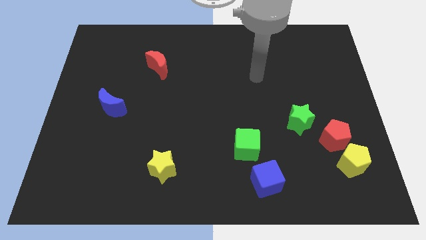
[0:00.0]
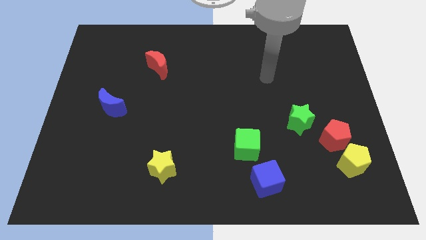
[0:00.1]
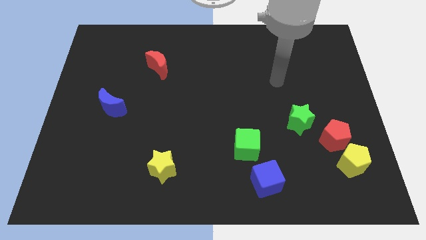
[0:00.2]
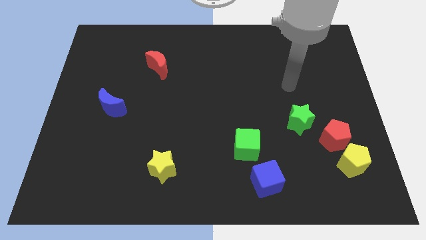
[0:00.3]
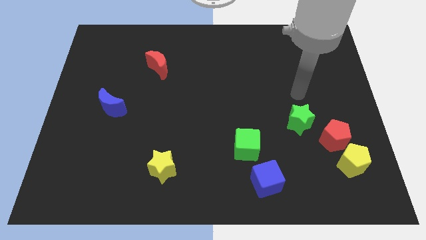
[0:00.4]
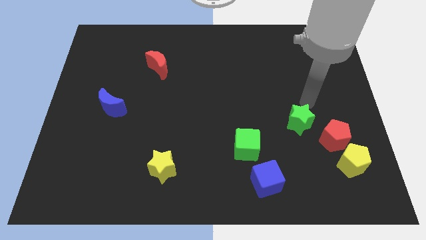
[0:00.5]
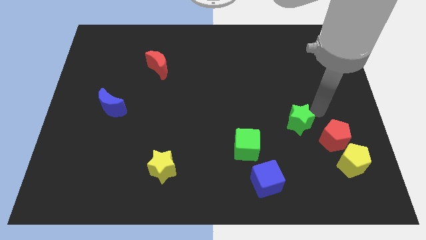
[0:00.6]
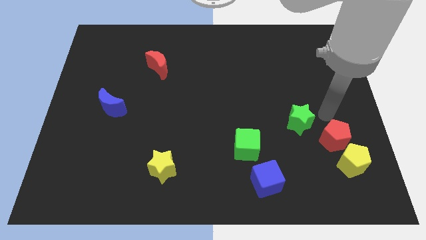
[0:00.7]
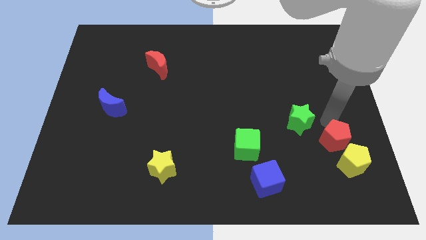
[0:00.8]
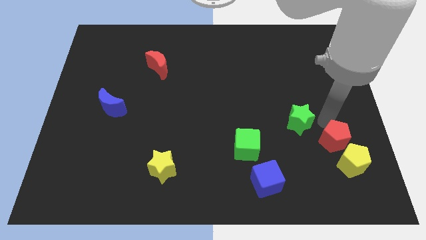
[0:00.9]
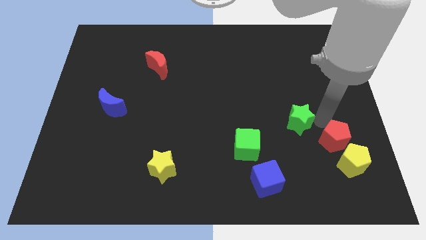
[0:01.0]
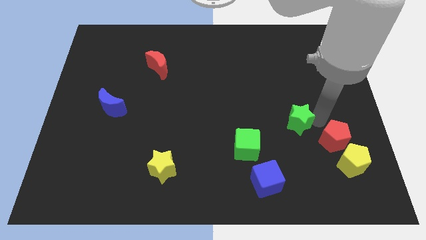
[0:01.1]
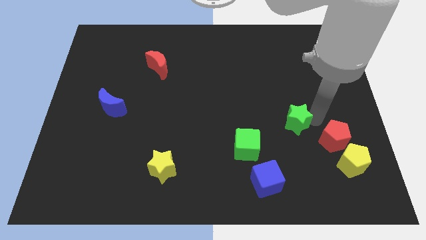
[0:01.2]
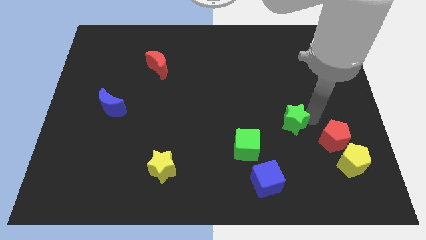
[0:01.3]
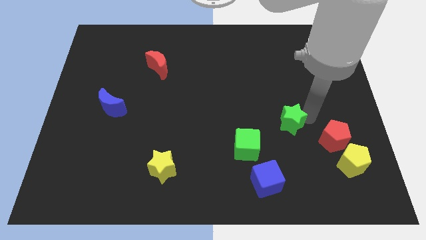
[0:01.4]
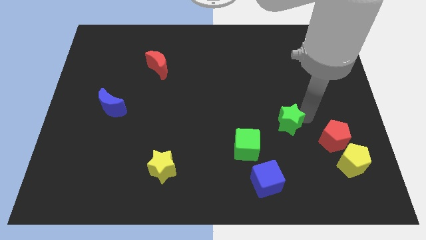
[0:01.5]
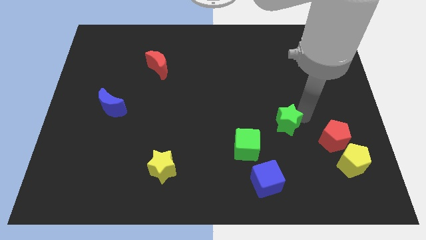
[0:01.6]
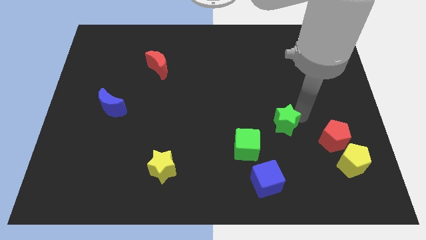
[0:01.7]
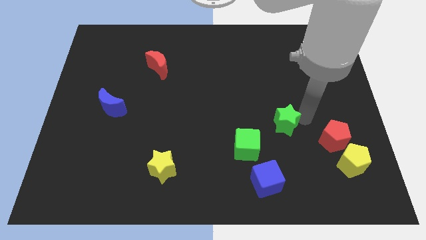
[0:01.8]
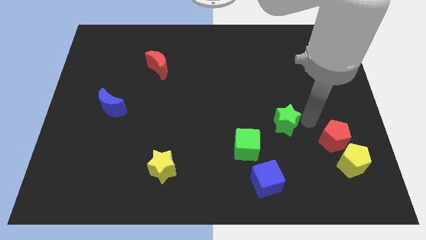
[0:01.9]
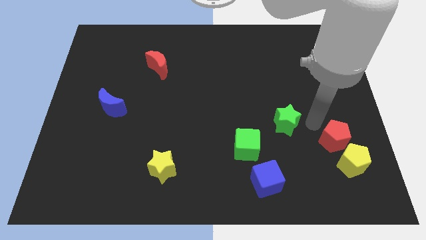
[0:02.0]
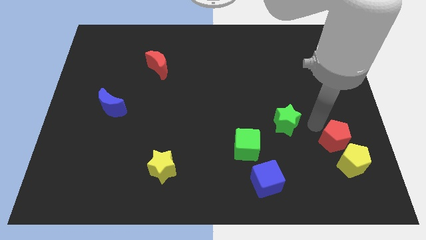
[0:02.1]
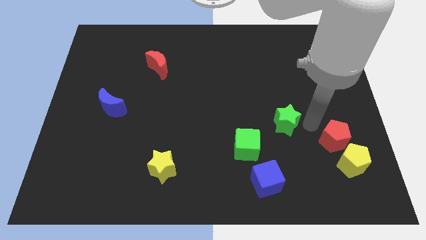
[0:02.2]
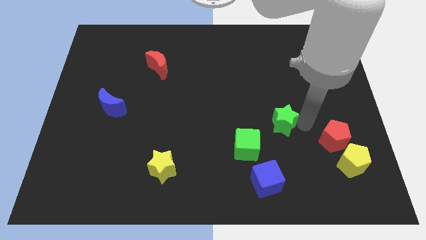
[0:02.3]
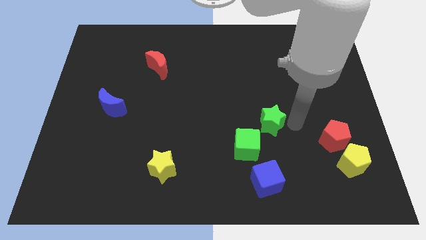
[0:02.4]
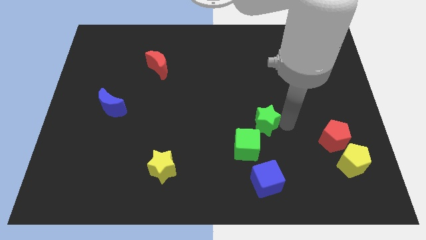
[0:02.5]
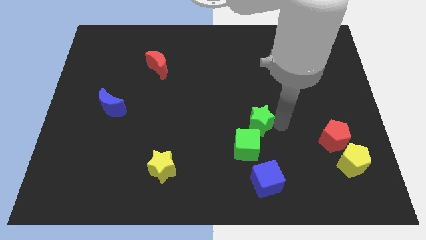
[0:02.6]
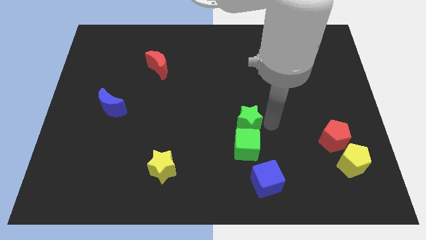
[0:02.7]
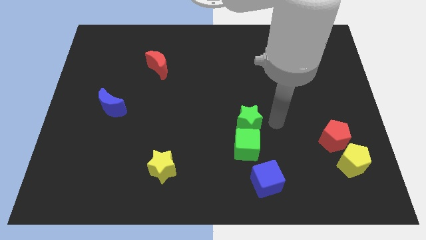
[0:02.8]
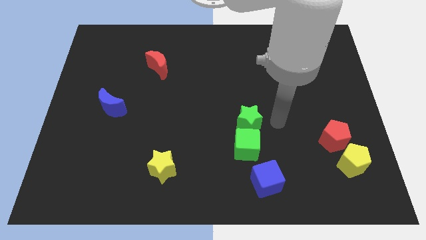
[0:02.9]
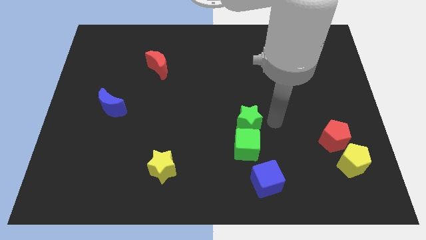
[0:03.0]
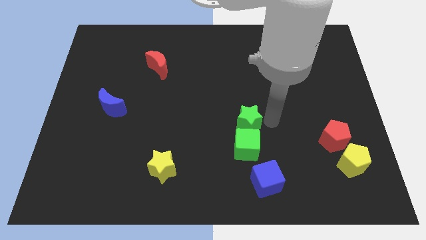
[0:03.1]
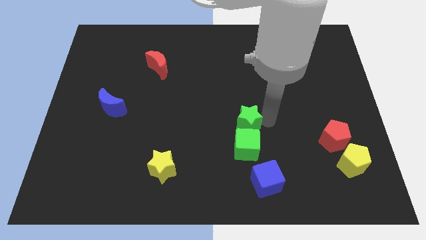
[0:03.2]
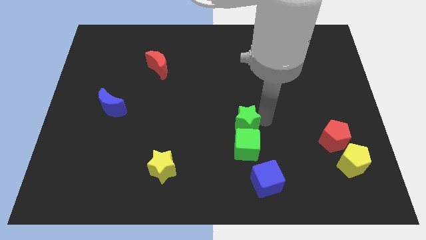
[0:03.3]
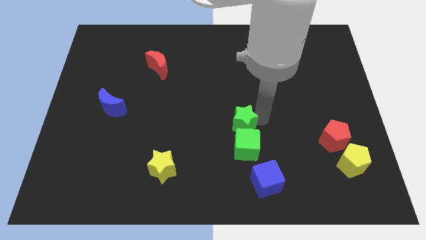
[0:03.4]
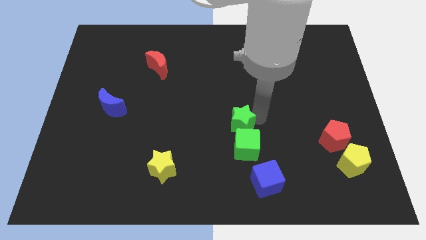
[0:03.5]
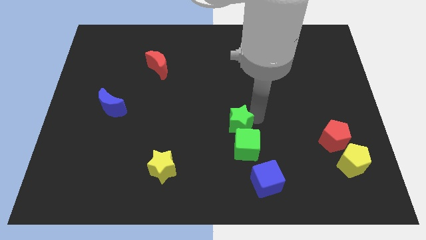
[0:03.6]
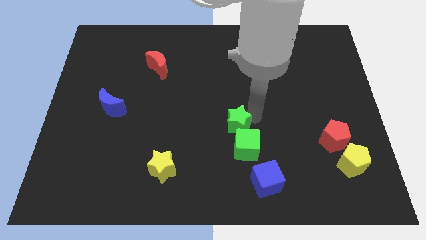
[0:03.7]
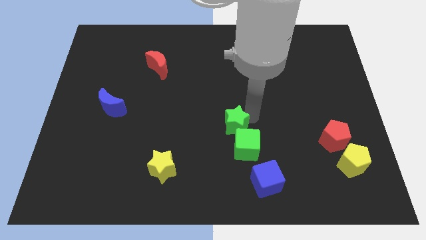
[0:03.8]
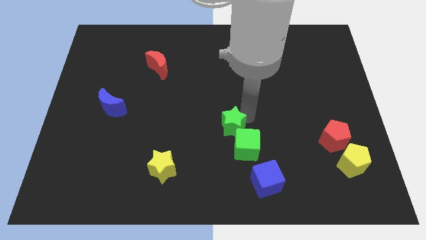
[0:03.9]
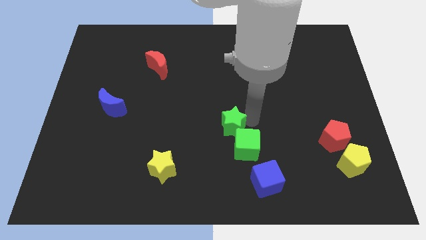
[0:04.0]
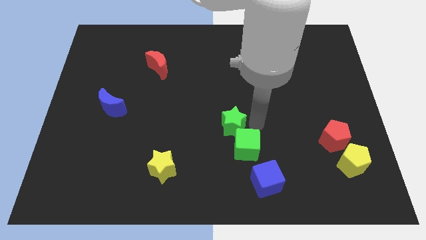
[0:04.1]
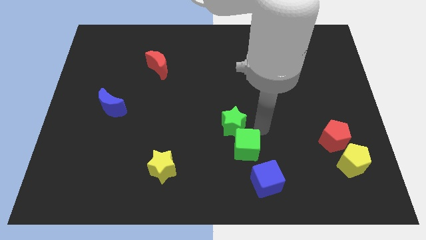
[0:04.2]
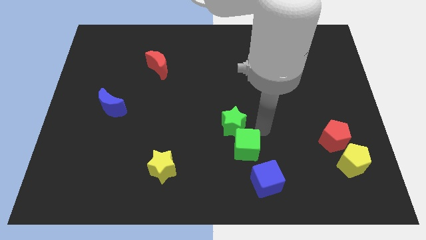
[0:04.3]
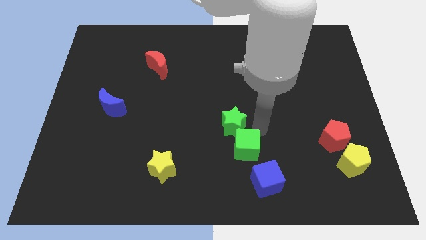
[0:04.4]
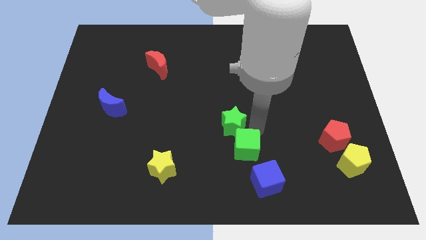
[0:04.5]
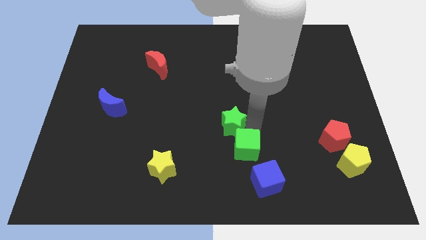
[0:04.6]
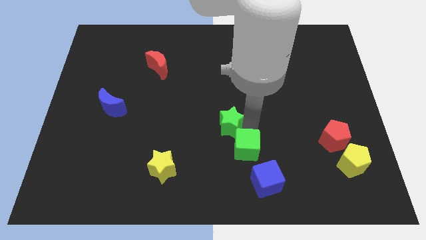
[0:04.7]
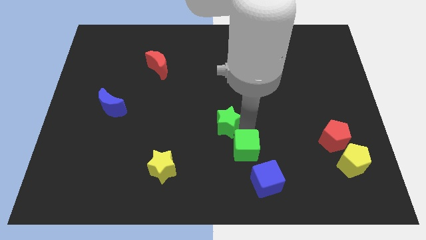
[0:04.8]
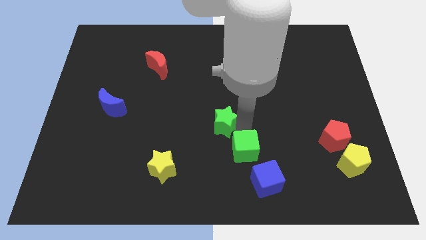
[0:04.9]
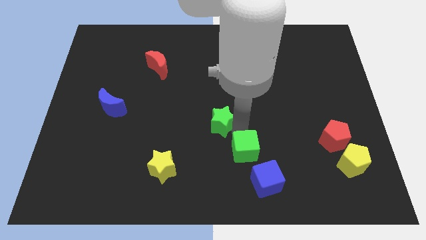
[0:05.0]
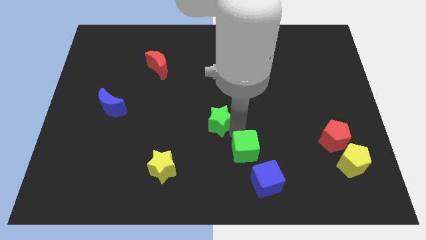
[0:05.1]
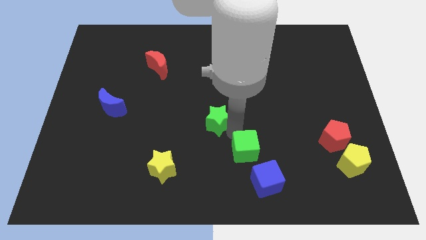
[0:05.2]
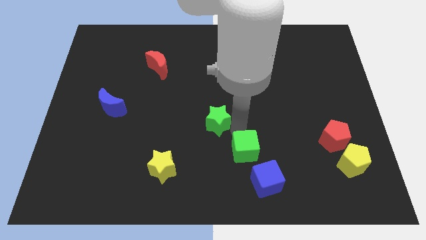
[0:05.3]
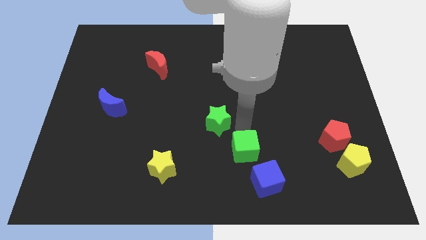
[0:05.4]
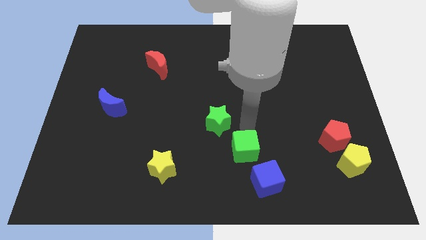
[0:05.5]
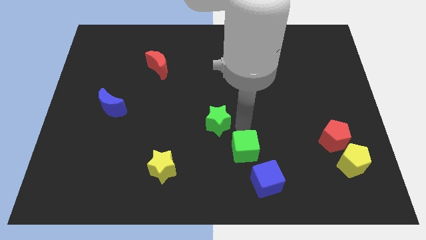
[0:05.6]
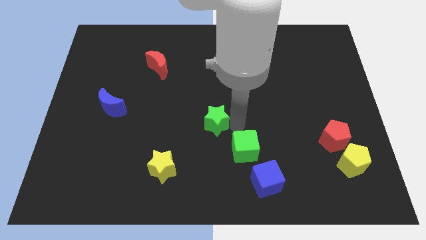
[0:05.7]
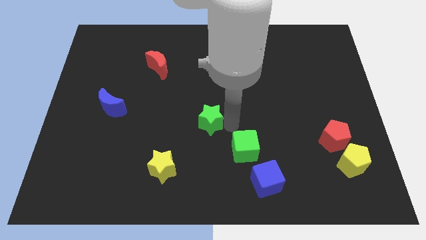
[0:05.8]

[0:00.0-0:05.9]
move the green star left

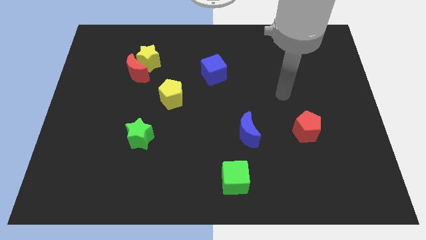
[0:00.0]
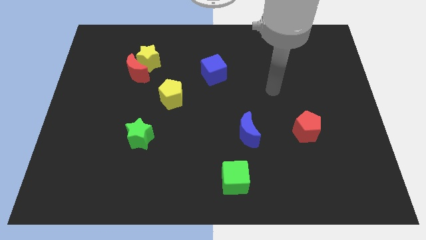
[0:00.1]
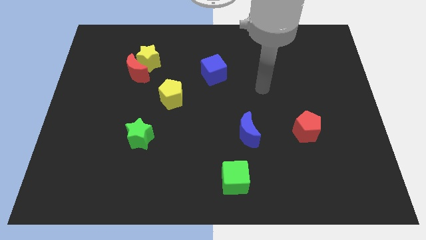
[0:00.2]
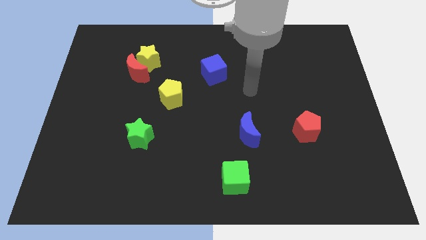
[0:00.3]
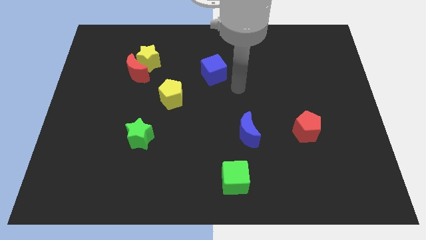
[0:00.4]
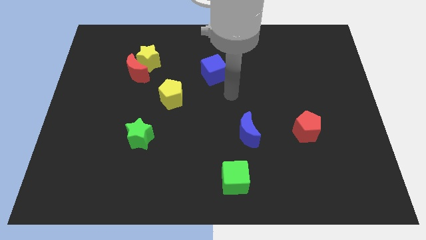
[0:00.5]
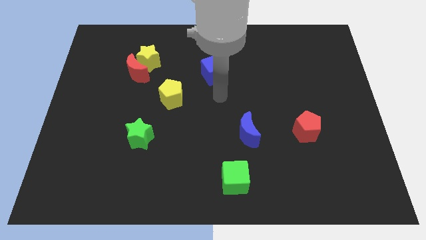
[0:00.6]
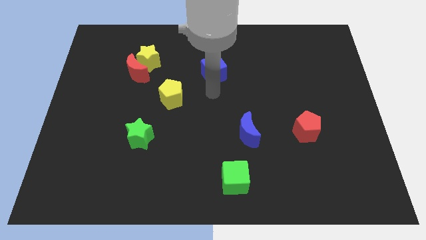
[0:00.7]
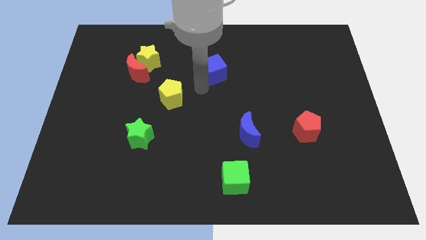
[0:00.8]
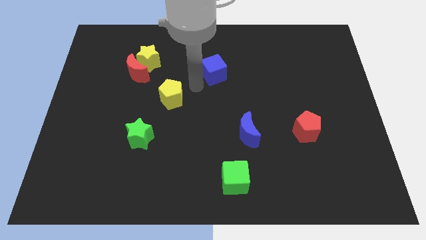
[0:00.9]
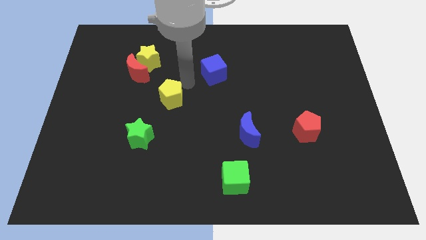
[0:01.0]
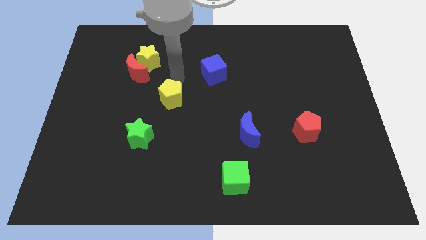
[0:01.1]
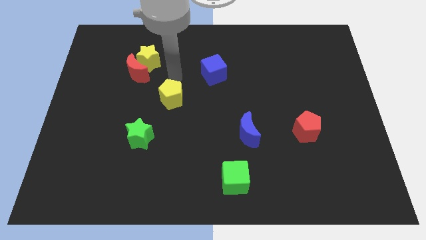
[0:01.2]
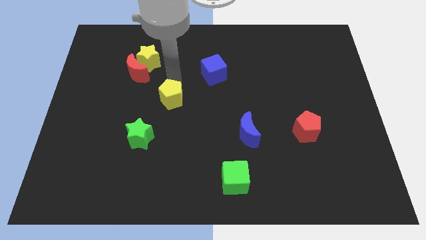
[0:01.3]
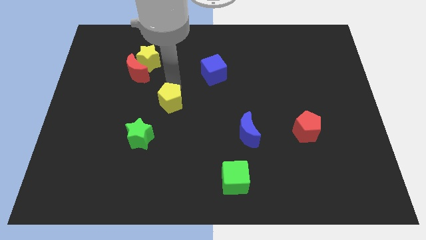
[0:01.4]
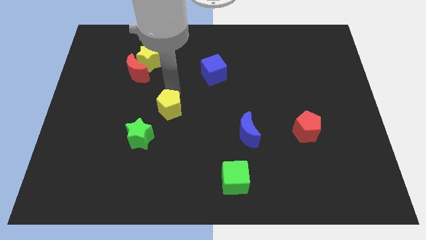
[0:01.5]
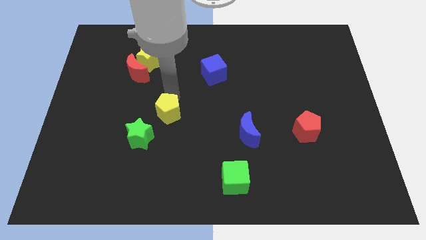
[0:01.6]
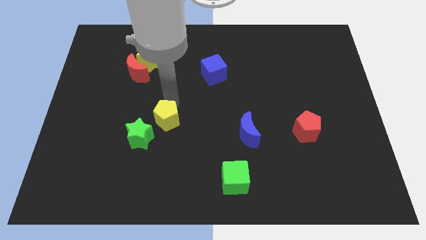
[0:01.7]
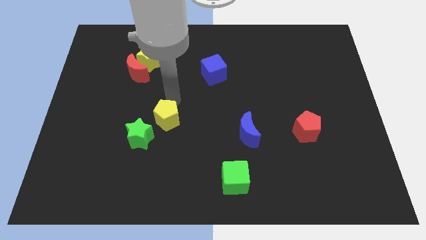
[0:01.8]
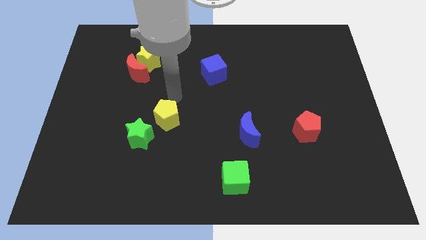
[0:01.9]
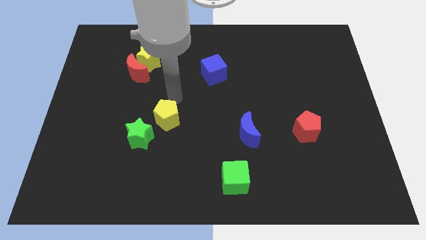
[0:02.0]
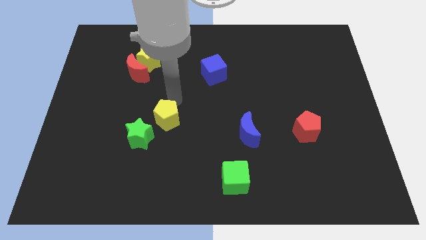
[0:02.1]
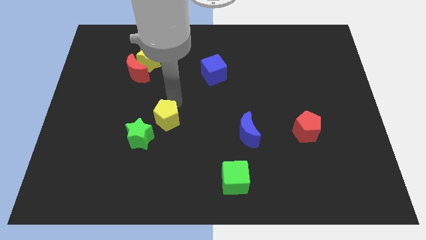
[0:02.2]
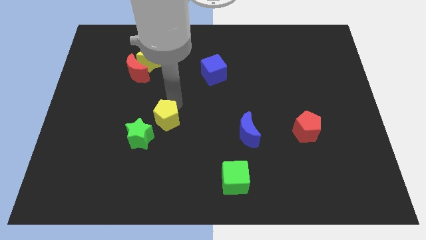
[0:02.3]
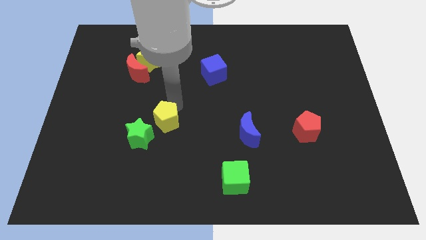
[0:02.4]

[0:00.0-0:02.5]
slightly push the yellow pentagon downwards
